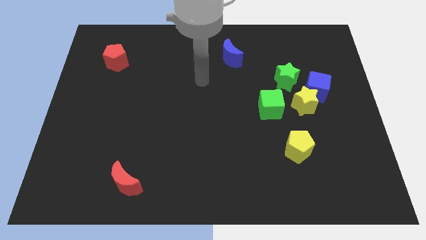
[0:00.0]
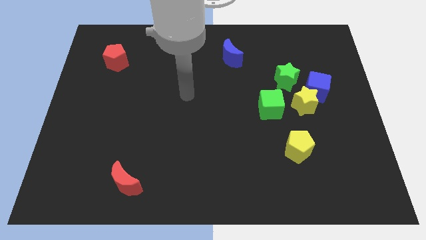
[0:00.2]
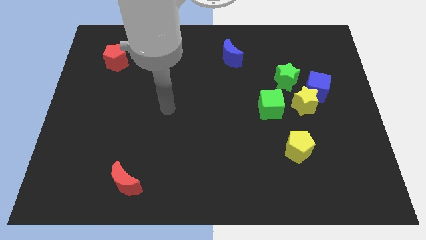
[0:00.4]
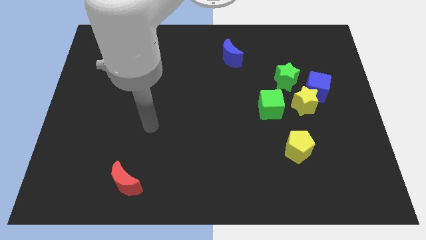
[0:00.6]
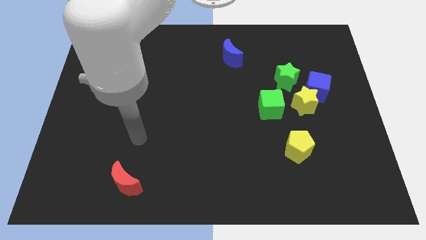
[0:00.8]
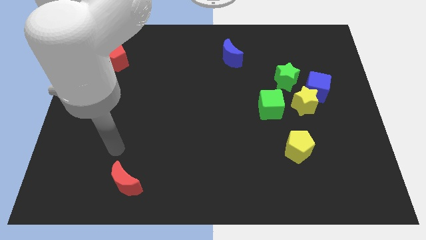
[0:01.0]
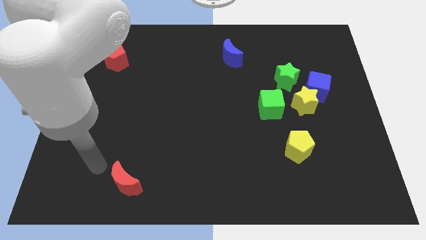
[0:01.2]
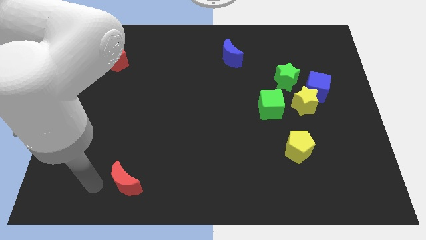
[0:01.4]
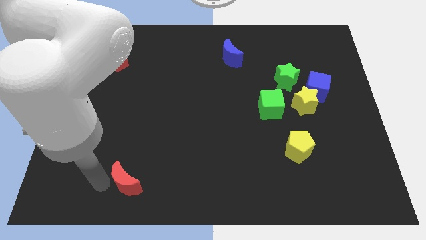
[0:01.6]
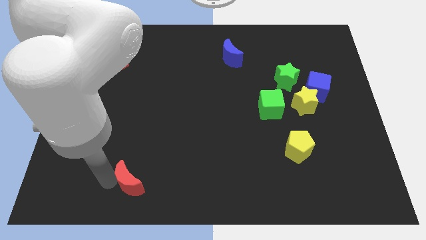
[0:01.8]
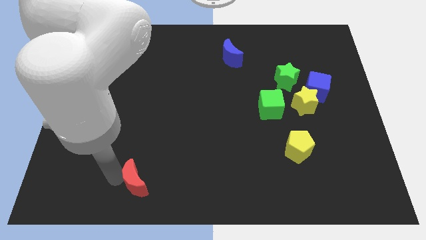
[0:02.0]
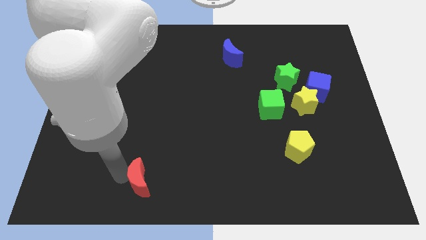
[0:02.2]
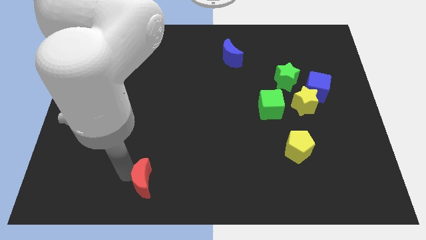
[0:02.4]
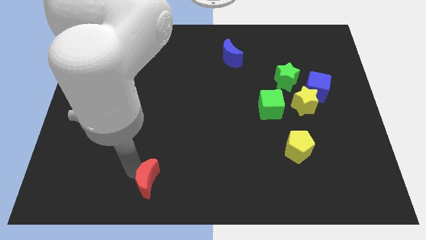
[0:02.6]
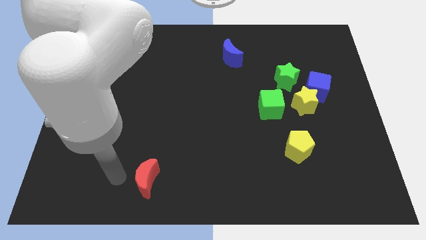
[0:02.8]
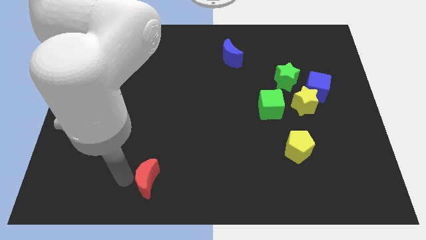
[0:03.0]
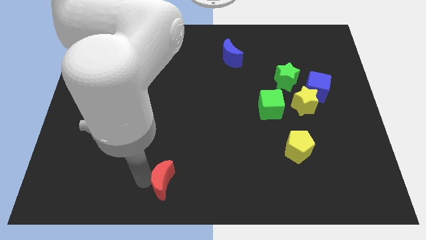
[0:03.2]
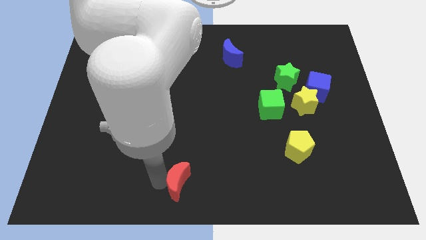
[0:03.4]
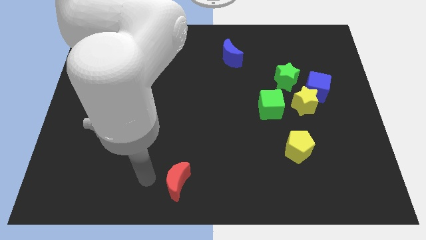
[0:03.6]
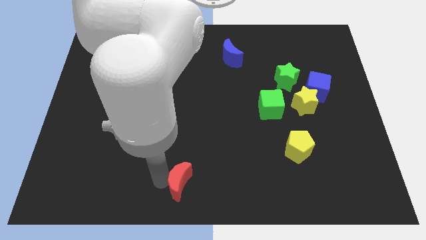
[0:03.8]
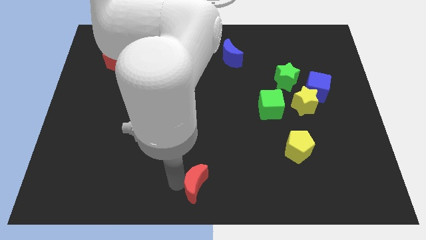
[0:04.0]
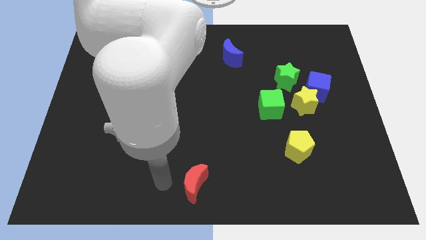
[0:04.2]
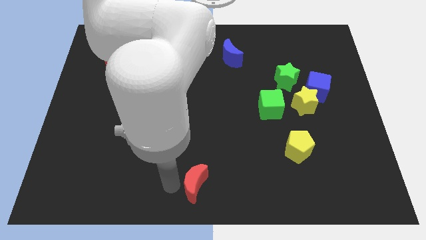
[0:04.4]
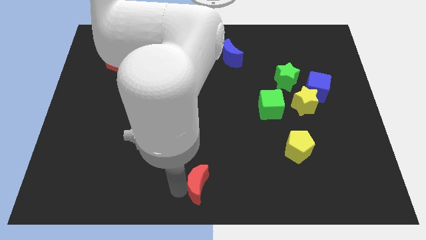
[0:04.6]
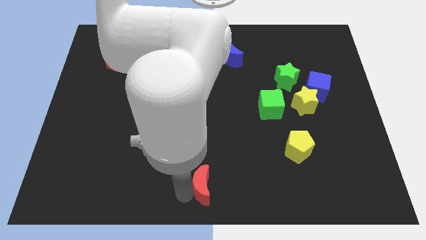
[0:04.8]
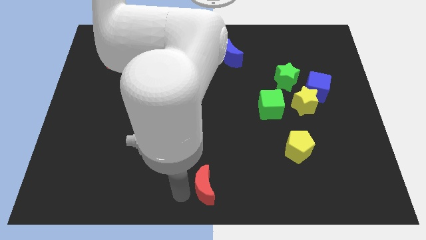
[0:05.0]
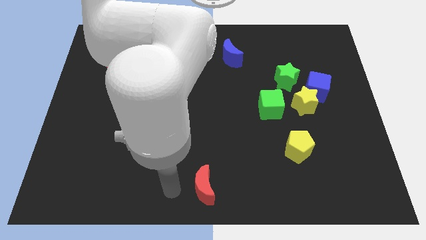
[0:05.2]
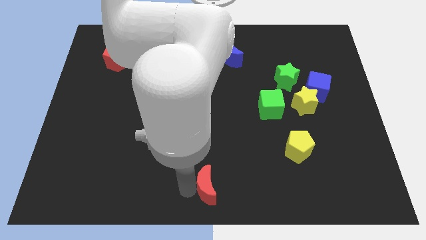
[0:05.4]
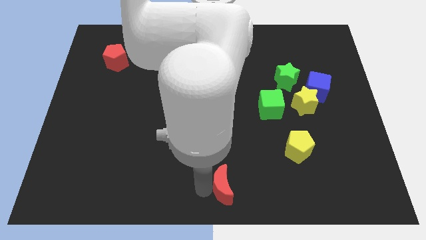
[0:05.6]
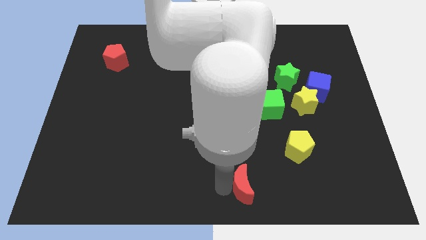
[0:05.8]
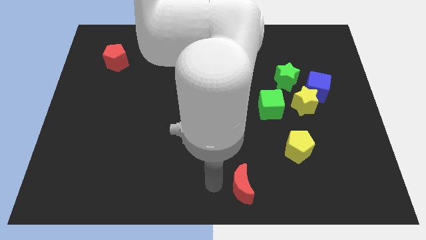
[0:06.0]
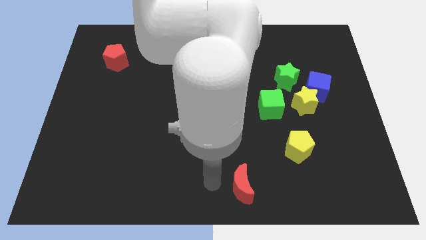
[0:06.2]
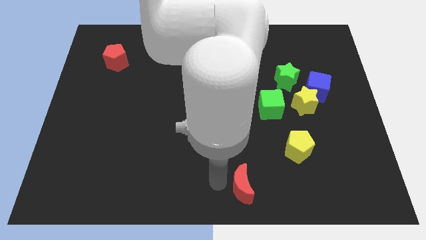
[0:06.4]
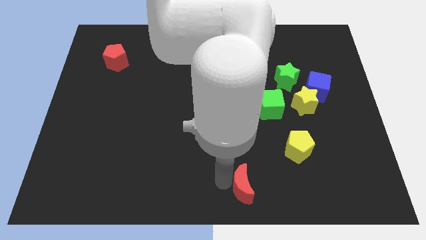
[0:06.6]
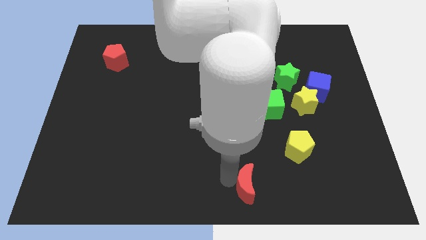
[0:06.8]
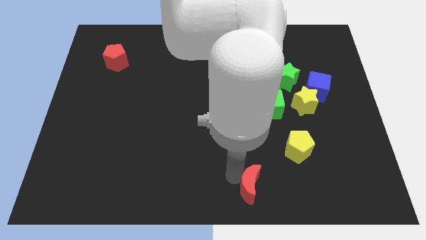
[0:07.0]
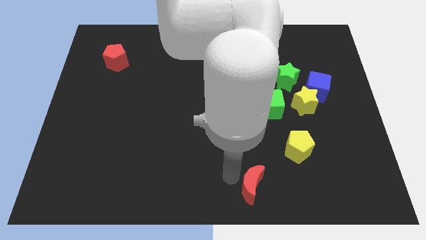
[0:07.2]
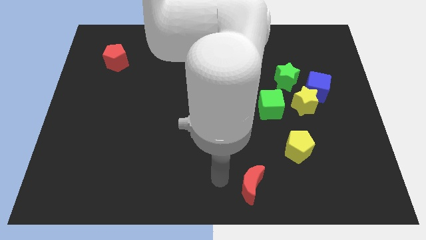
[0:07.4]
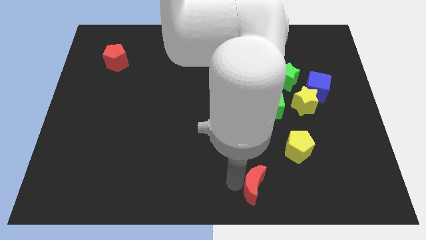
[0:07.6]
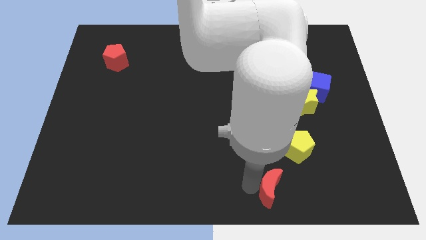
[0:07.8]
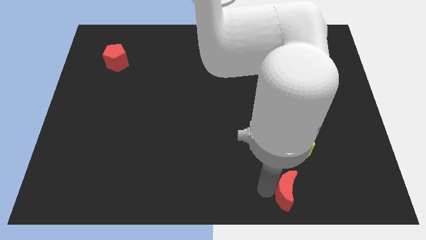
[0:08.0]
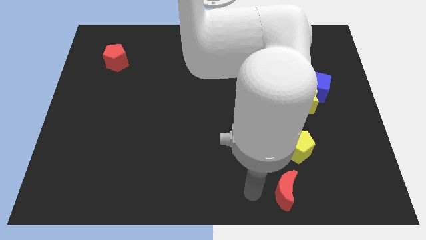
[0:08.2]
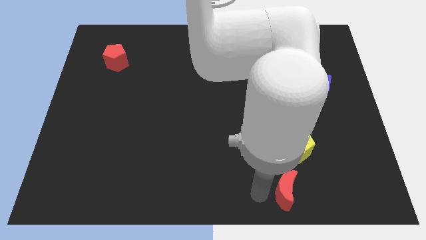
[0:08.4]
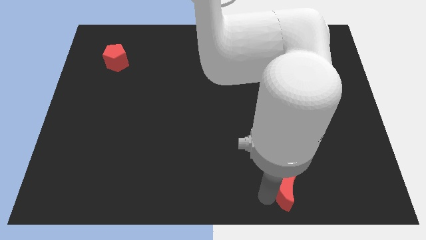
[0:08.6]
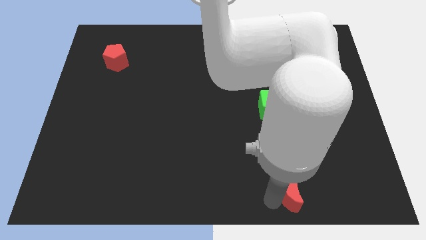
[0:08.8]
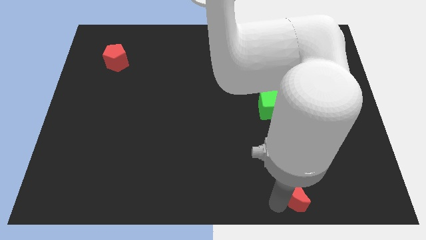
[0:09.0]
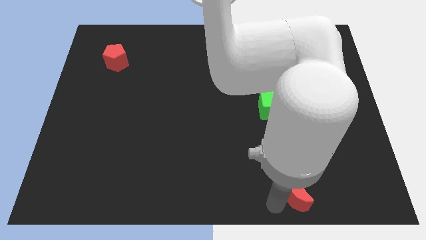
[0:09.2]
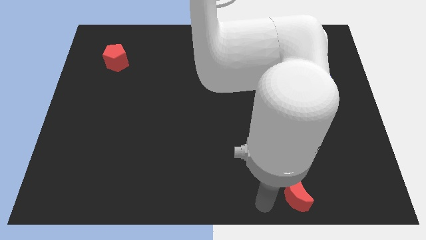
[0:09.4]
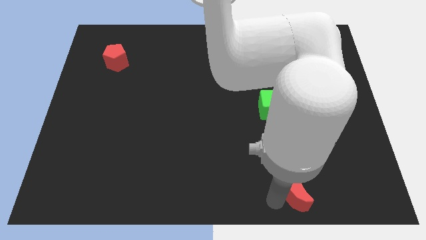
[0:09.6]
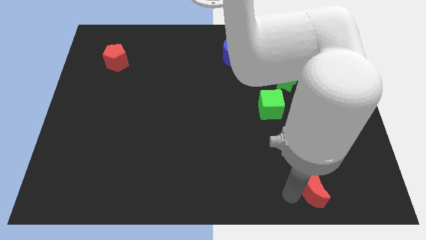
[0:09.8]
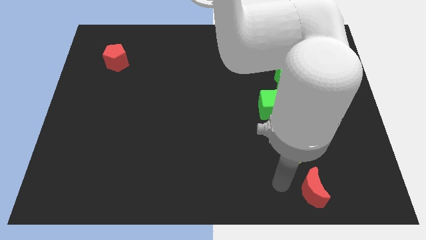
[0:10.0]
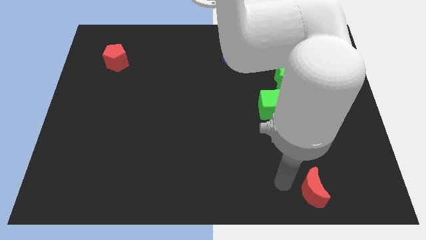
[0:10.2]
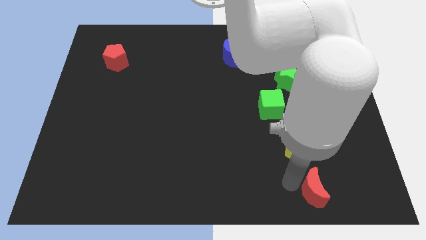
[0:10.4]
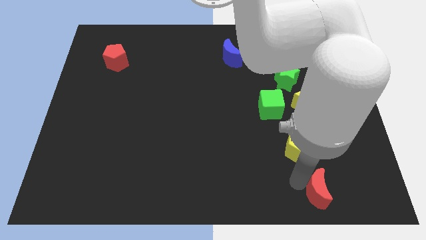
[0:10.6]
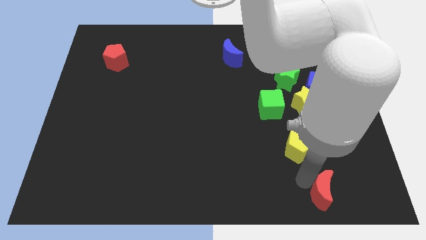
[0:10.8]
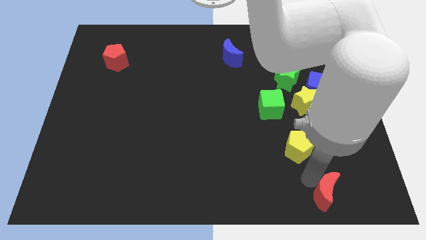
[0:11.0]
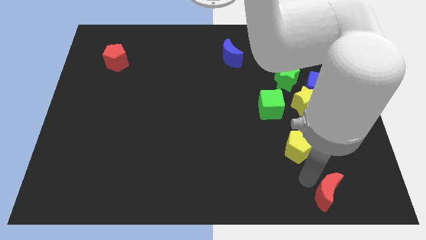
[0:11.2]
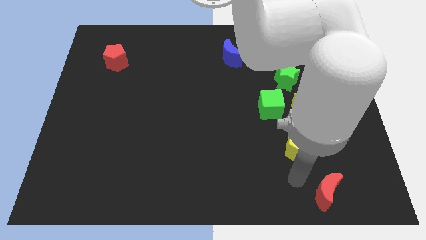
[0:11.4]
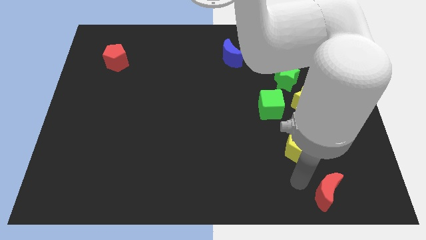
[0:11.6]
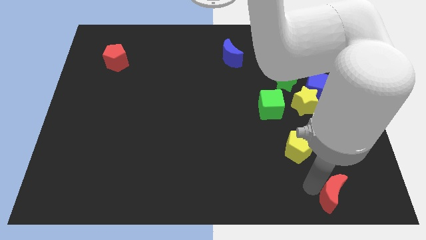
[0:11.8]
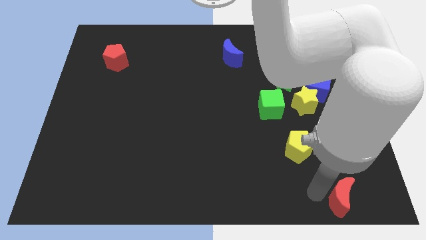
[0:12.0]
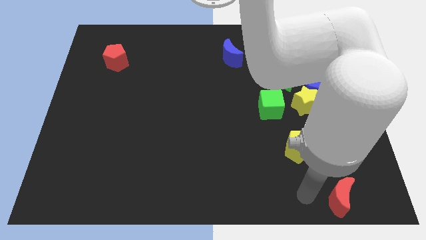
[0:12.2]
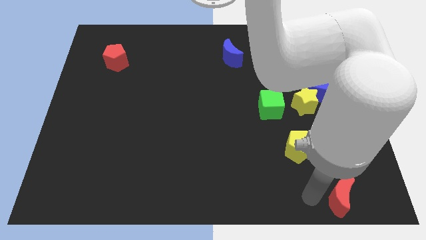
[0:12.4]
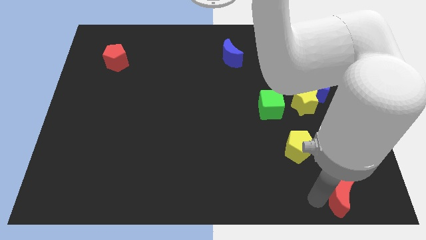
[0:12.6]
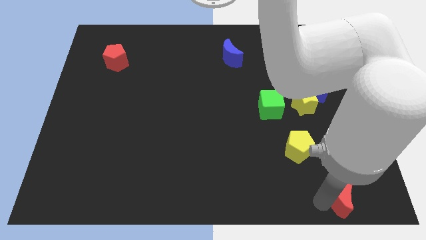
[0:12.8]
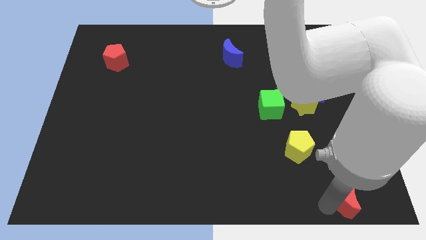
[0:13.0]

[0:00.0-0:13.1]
move the red moon to the bottom right of the board
